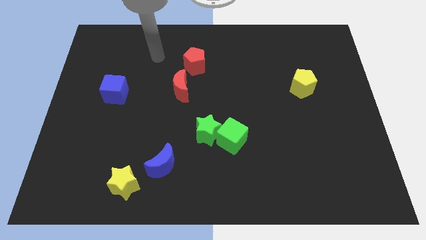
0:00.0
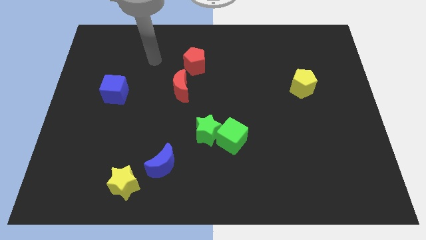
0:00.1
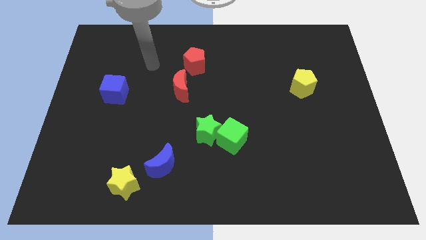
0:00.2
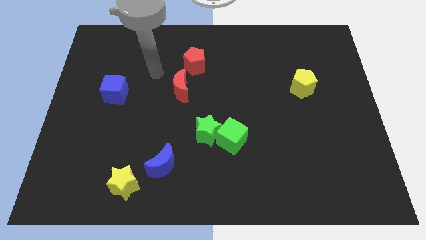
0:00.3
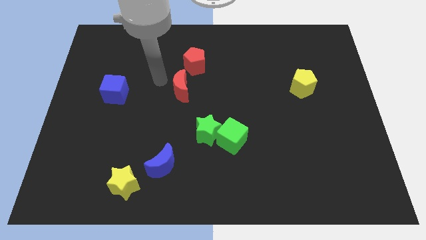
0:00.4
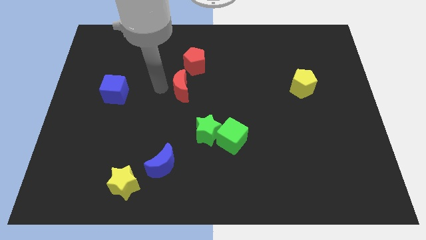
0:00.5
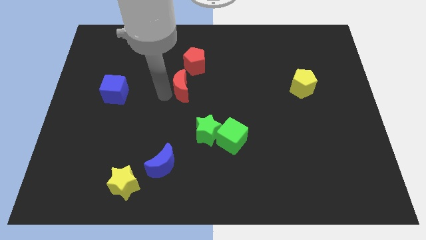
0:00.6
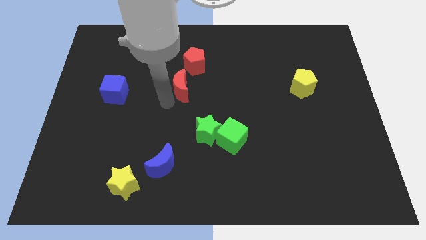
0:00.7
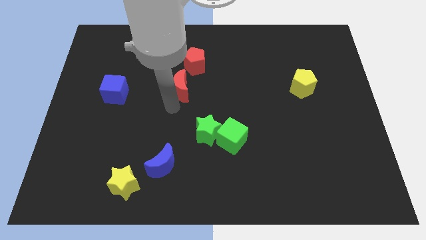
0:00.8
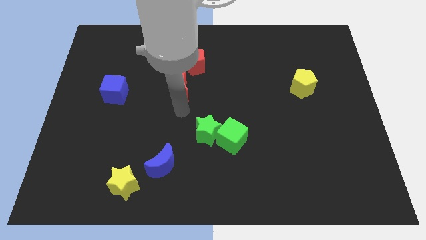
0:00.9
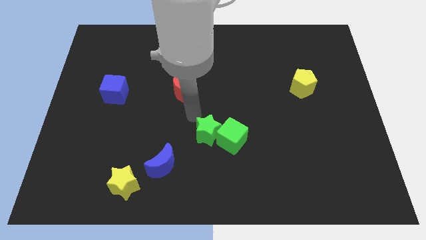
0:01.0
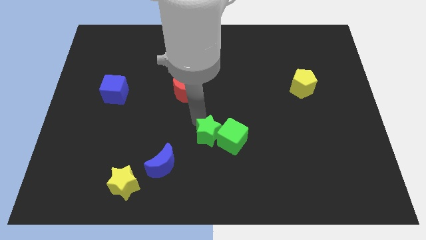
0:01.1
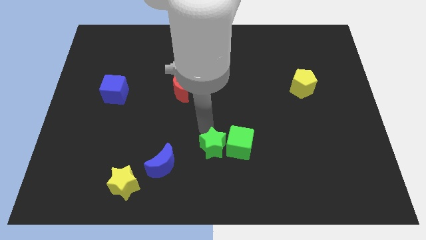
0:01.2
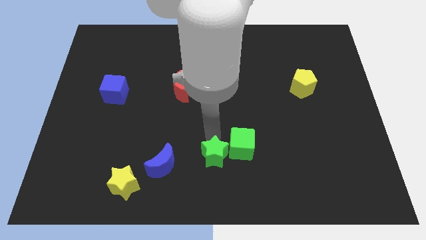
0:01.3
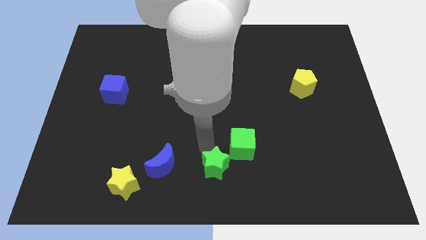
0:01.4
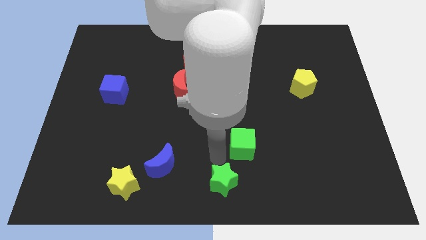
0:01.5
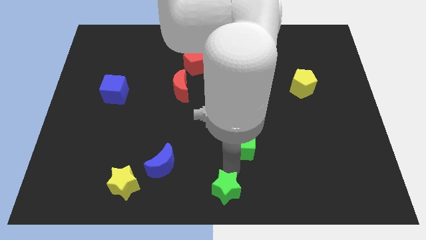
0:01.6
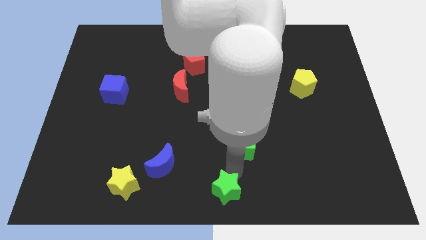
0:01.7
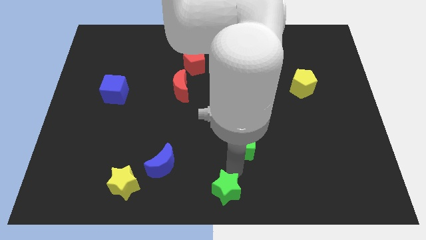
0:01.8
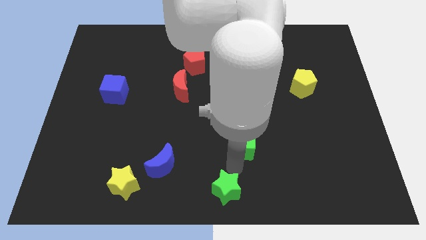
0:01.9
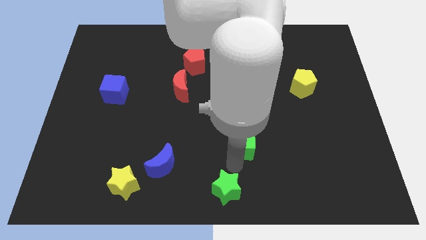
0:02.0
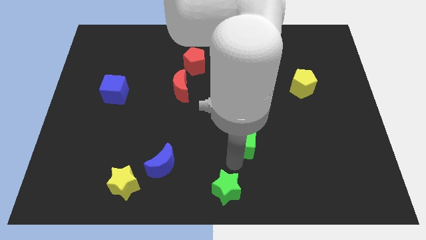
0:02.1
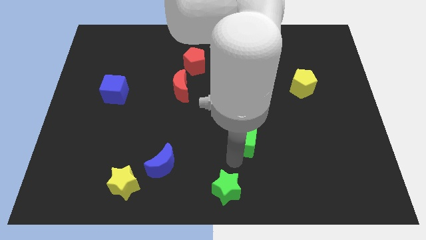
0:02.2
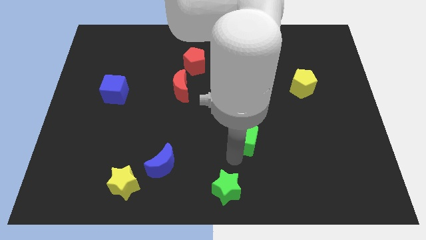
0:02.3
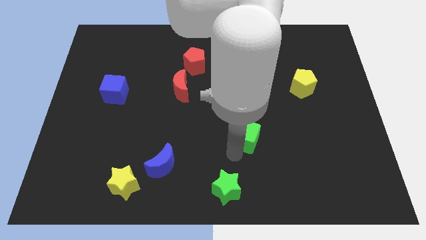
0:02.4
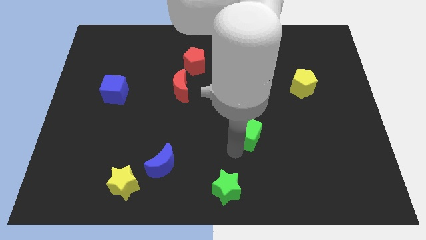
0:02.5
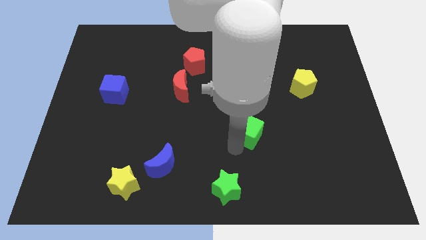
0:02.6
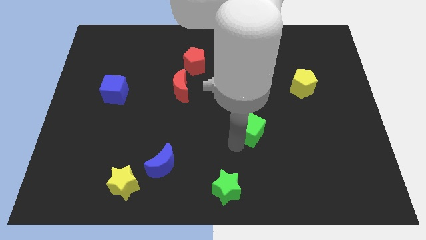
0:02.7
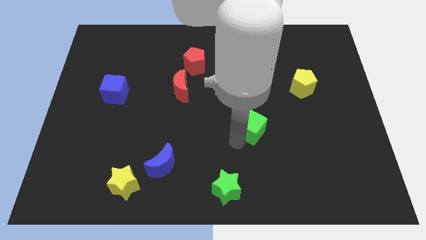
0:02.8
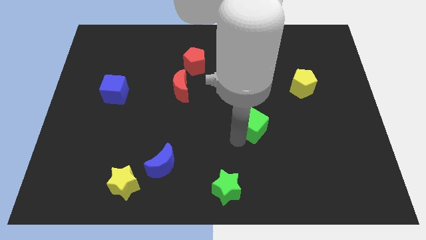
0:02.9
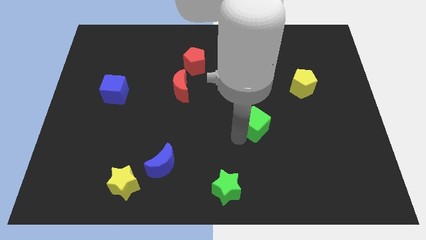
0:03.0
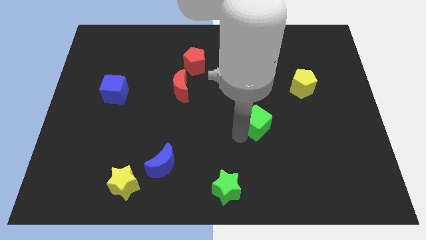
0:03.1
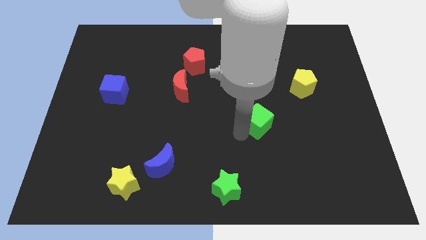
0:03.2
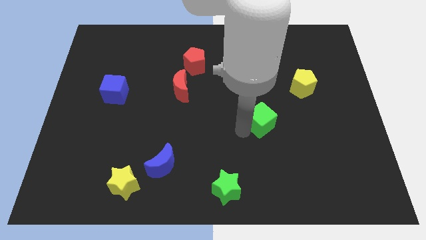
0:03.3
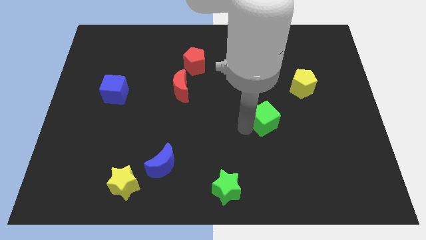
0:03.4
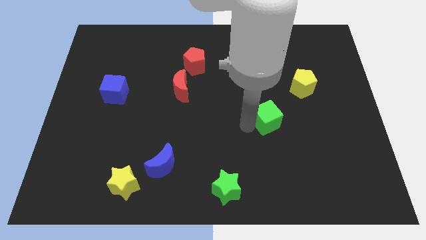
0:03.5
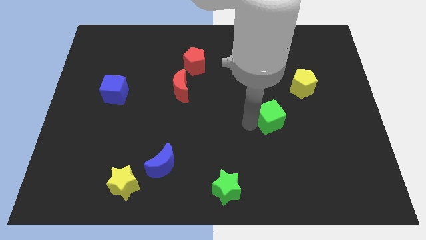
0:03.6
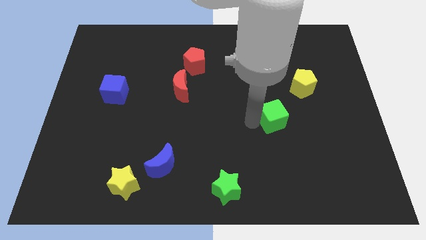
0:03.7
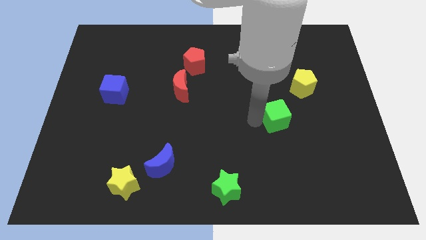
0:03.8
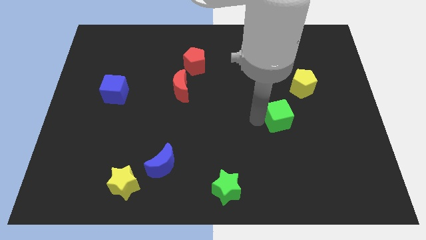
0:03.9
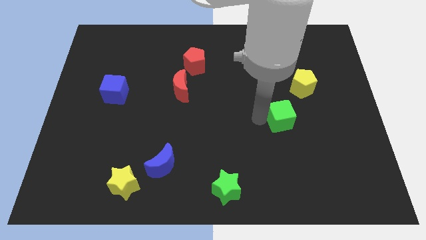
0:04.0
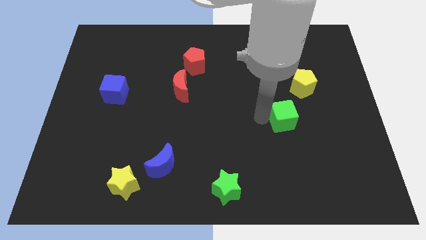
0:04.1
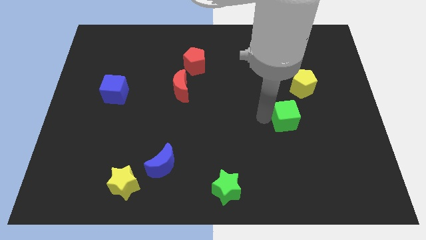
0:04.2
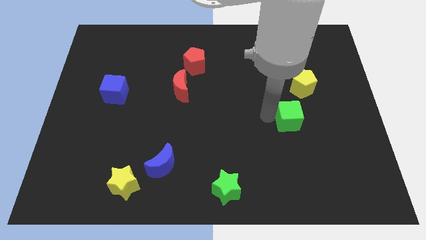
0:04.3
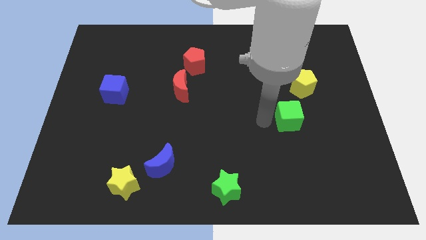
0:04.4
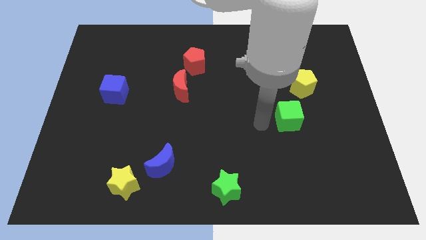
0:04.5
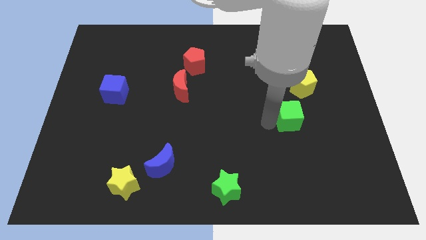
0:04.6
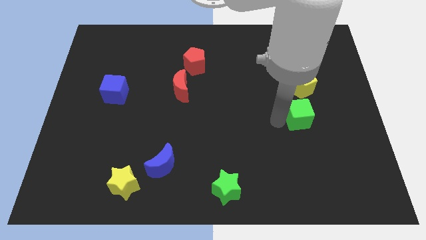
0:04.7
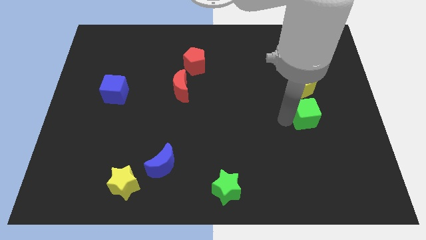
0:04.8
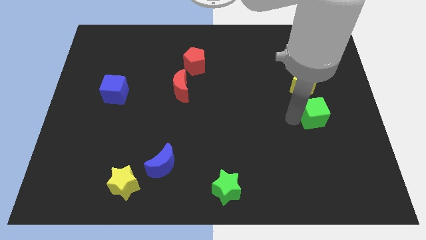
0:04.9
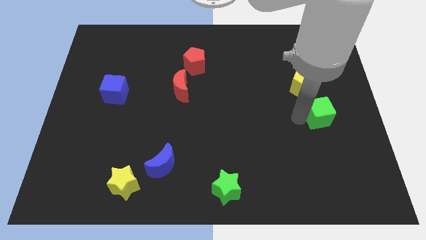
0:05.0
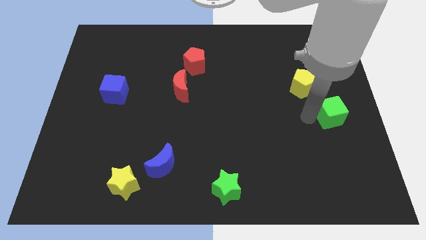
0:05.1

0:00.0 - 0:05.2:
move the green cube to the right side of the board

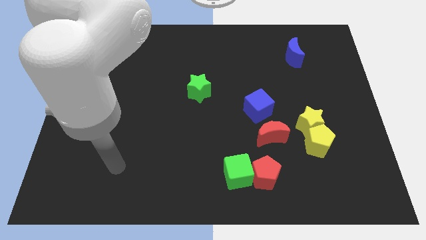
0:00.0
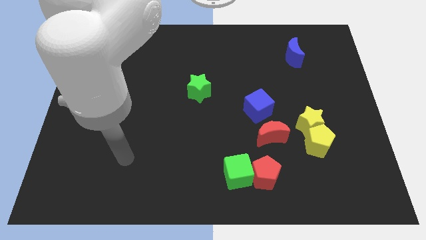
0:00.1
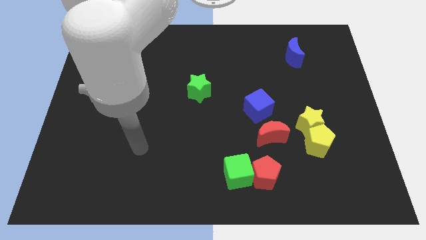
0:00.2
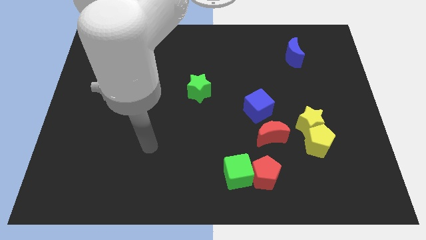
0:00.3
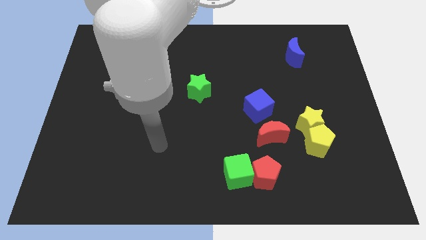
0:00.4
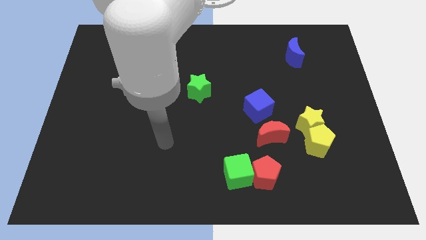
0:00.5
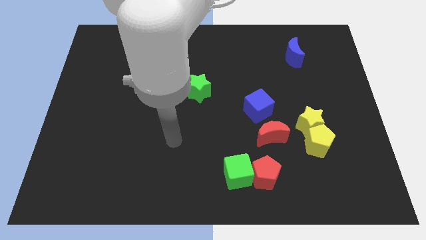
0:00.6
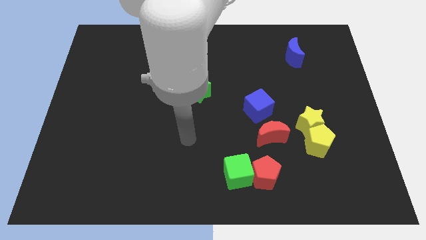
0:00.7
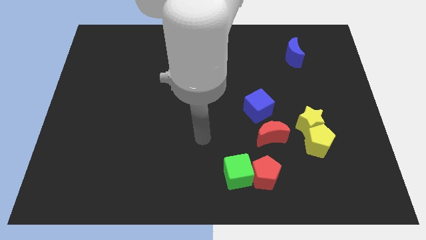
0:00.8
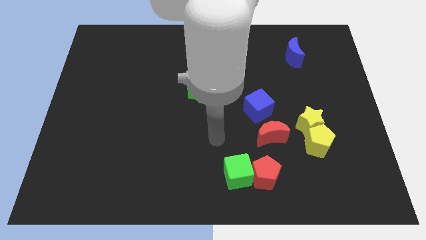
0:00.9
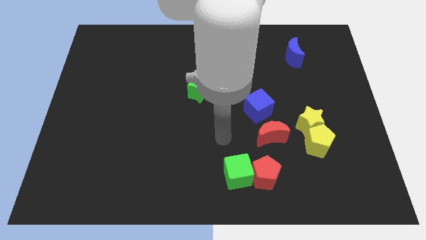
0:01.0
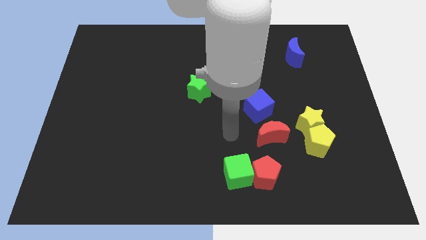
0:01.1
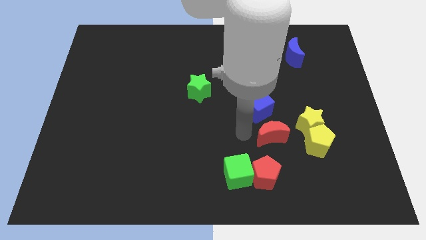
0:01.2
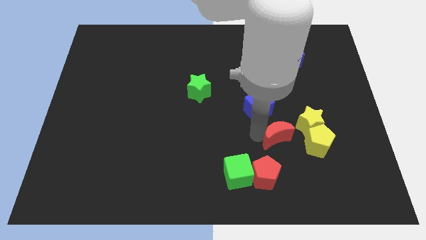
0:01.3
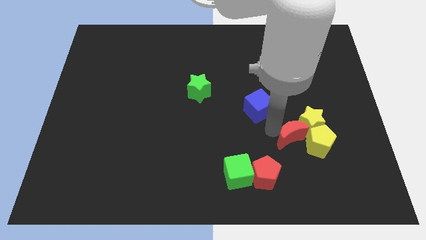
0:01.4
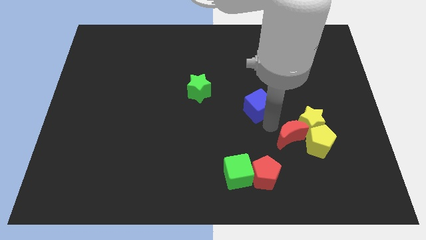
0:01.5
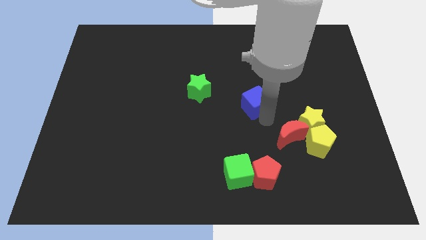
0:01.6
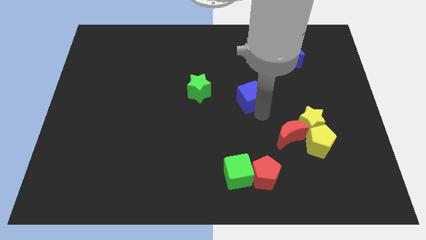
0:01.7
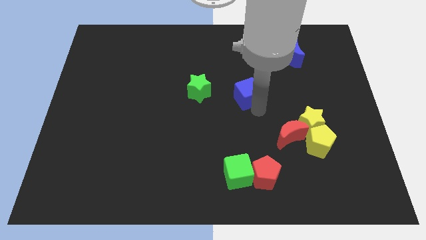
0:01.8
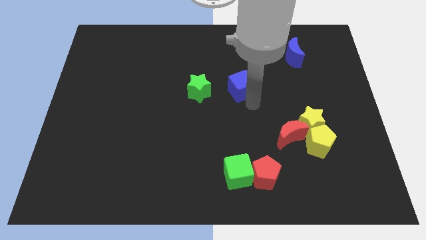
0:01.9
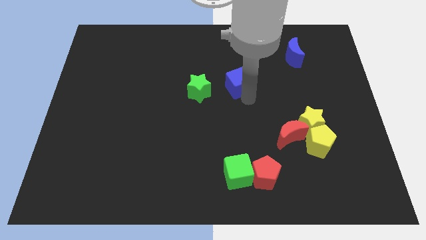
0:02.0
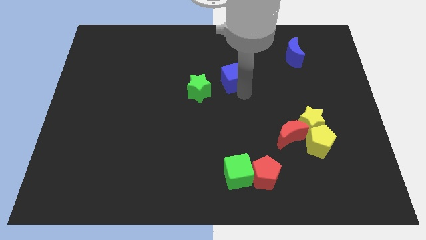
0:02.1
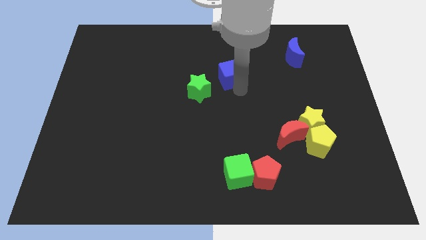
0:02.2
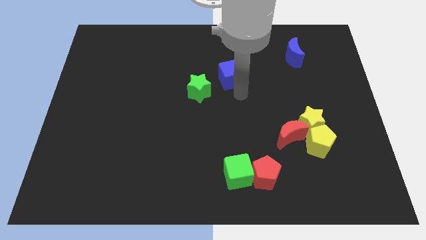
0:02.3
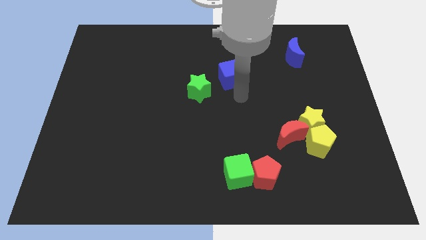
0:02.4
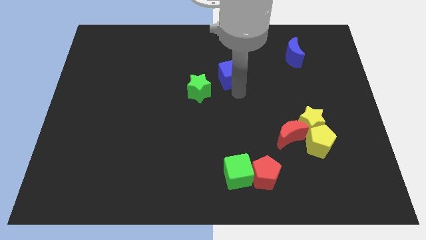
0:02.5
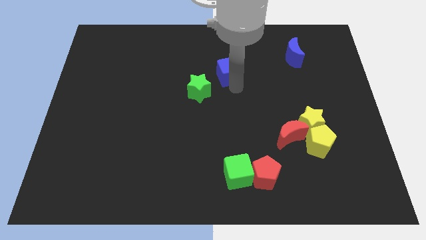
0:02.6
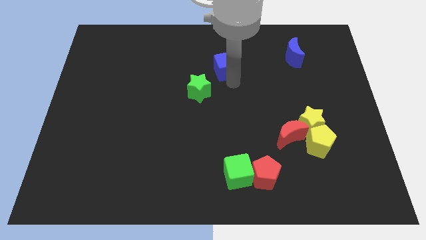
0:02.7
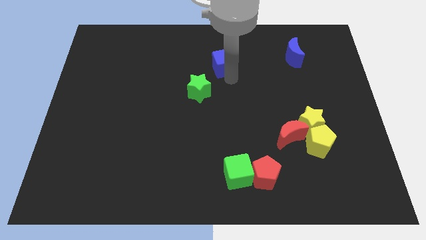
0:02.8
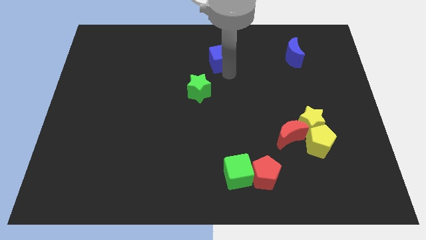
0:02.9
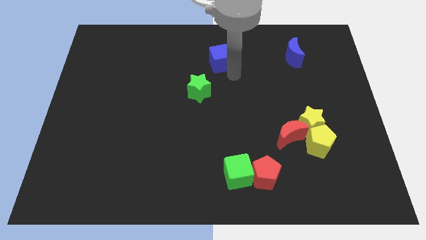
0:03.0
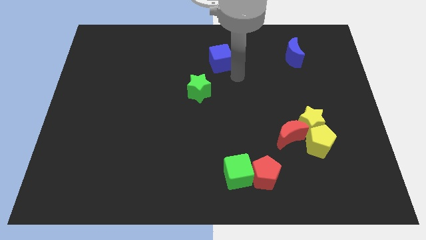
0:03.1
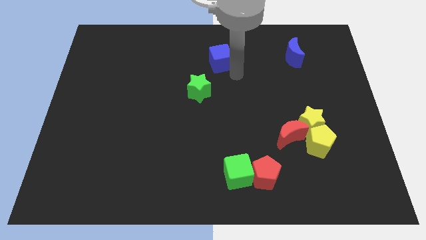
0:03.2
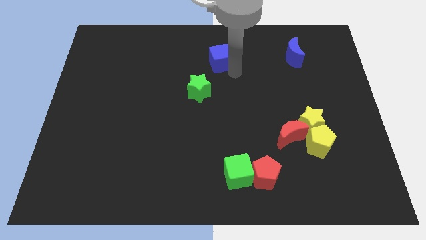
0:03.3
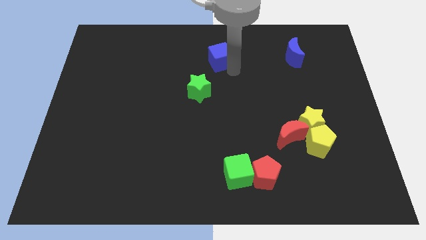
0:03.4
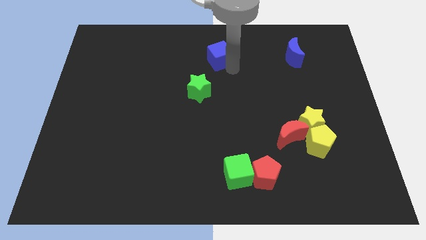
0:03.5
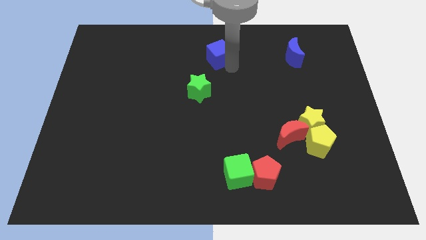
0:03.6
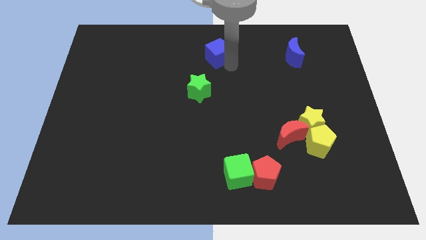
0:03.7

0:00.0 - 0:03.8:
put the blue cube to the top
